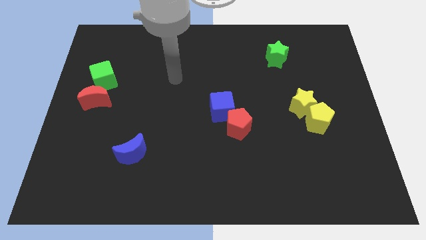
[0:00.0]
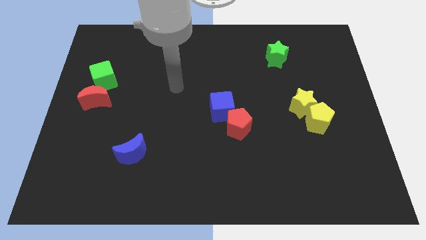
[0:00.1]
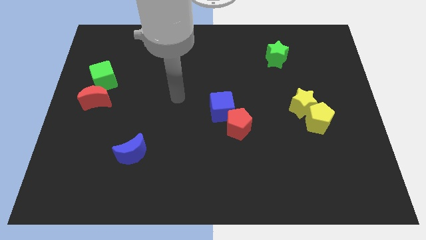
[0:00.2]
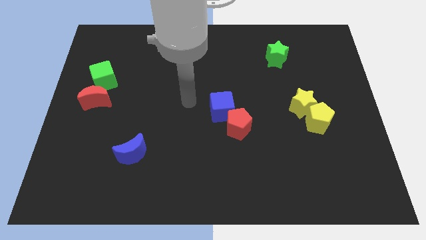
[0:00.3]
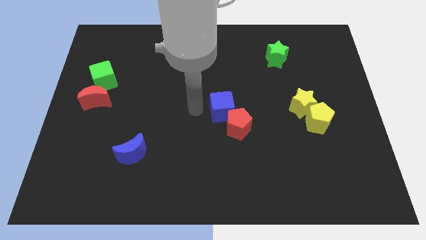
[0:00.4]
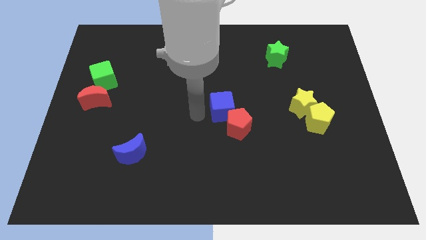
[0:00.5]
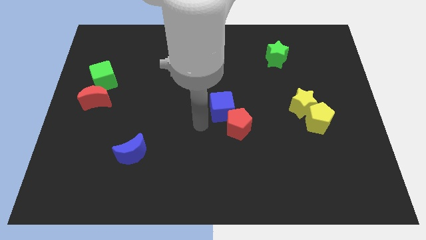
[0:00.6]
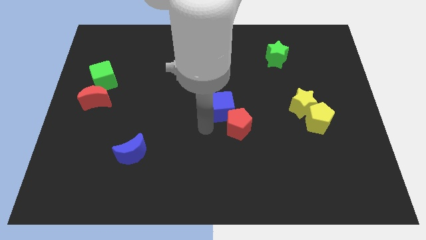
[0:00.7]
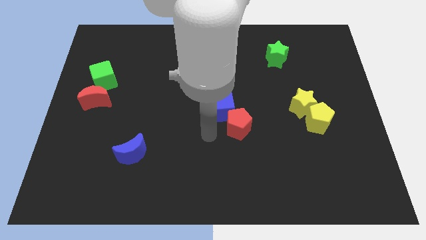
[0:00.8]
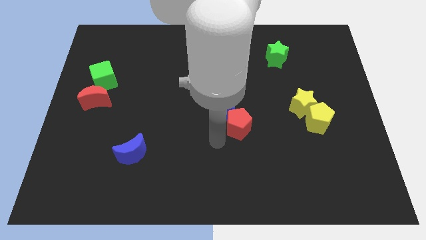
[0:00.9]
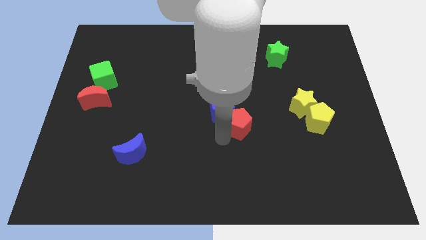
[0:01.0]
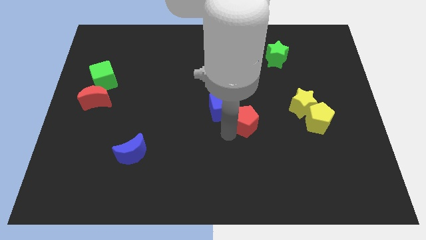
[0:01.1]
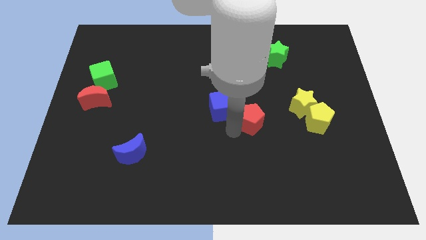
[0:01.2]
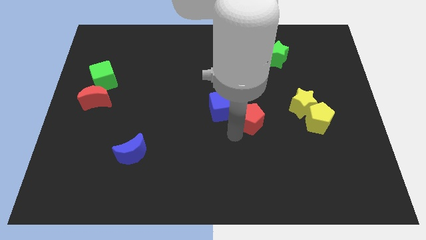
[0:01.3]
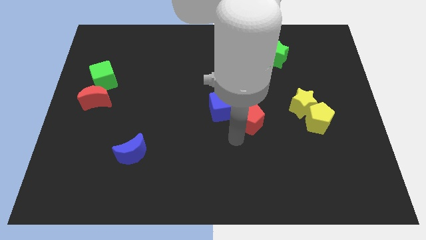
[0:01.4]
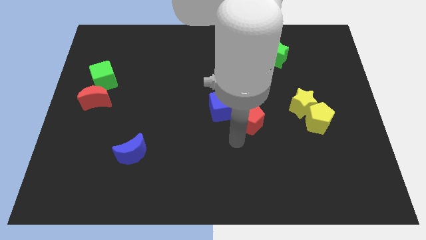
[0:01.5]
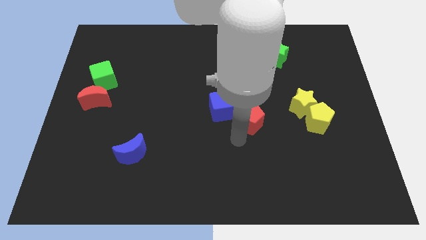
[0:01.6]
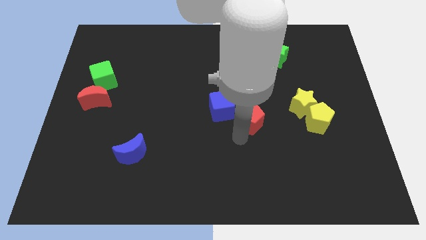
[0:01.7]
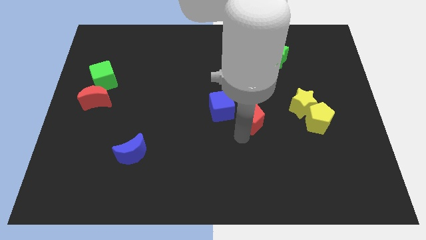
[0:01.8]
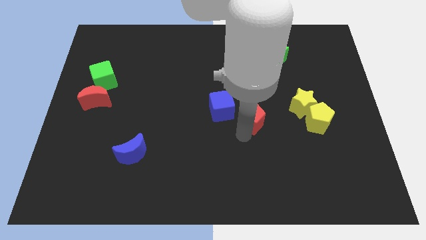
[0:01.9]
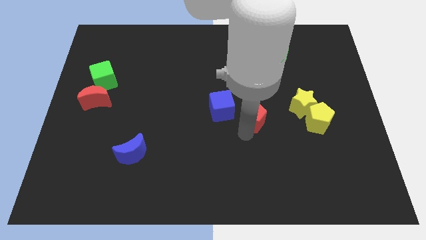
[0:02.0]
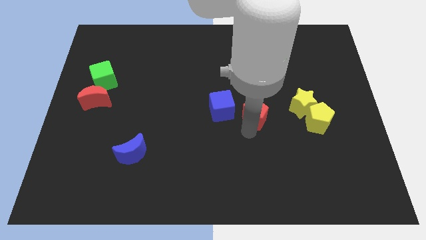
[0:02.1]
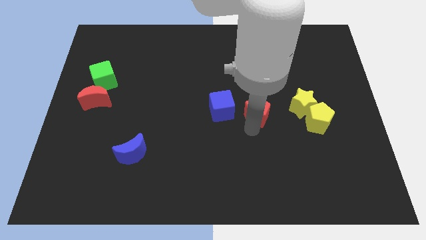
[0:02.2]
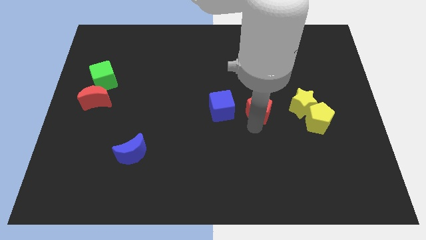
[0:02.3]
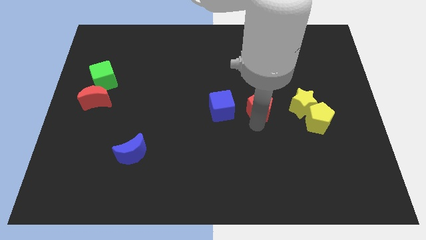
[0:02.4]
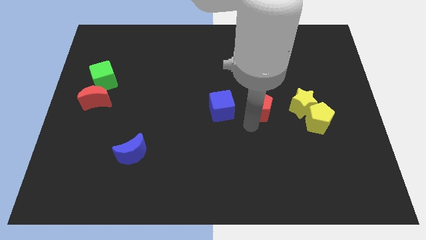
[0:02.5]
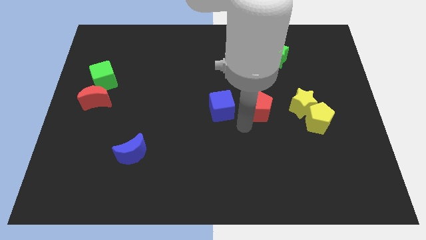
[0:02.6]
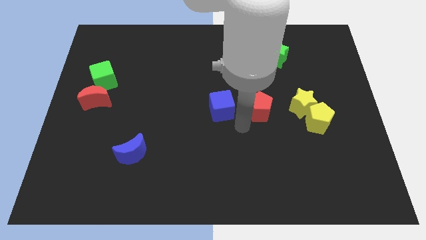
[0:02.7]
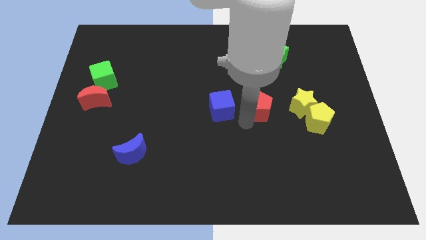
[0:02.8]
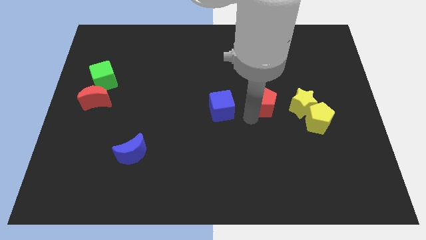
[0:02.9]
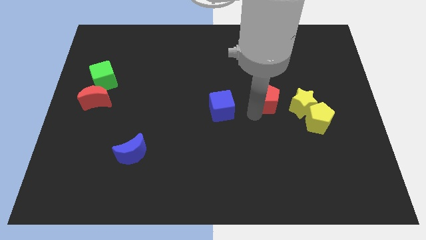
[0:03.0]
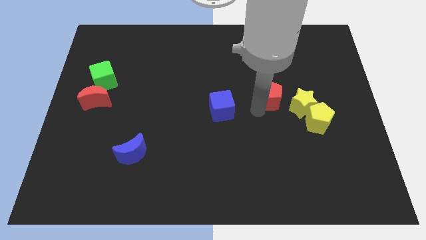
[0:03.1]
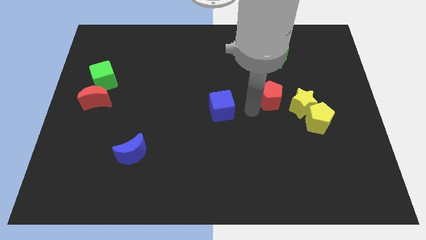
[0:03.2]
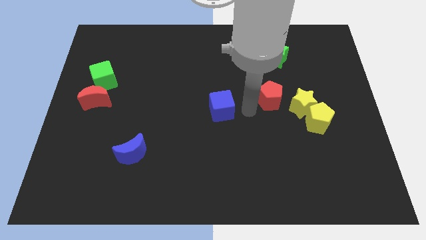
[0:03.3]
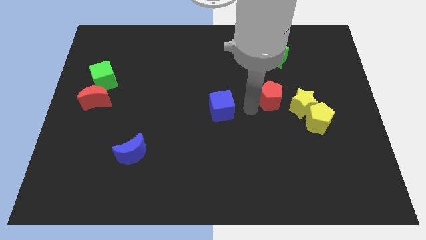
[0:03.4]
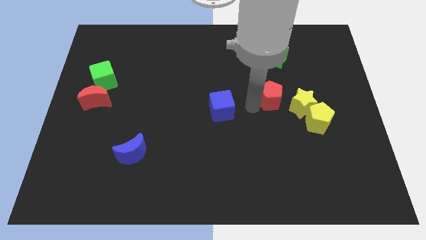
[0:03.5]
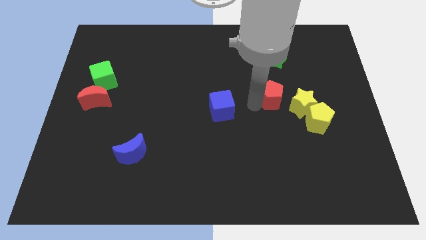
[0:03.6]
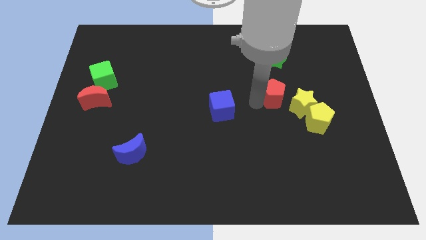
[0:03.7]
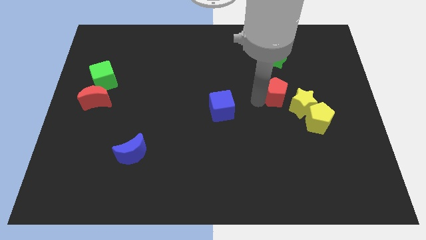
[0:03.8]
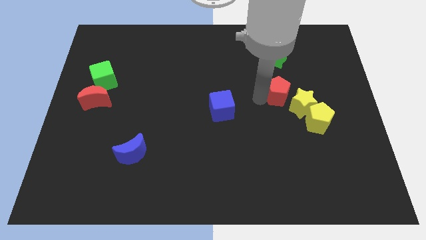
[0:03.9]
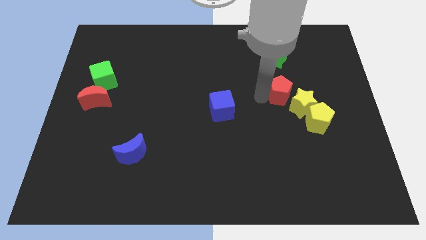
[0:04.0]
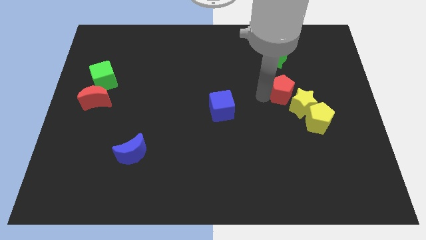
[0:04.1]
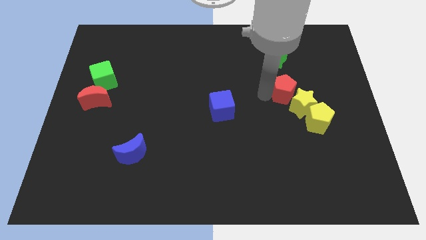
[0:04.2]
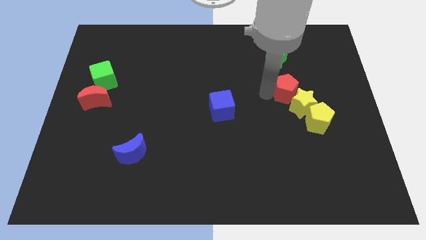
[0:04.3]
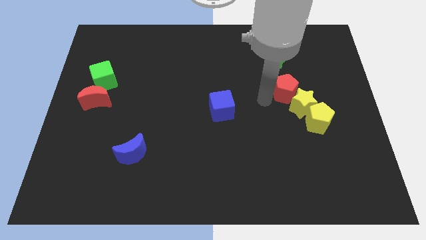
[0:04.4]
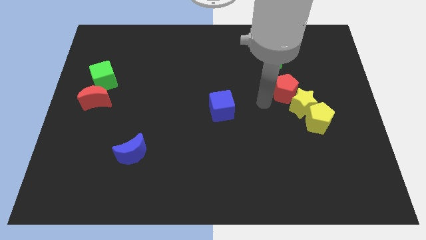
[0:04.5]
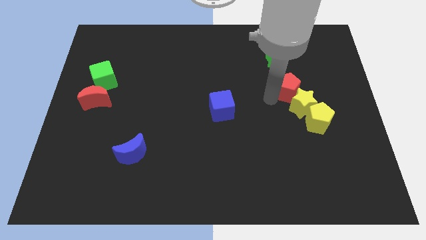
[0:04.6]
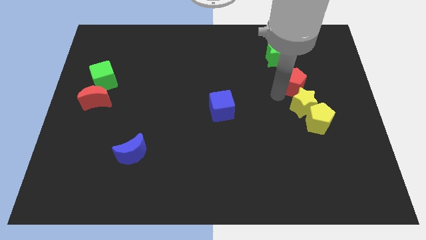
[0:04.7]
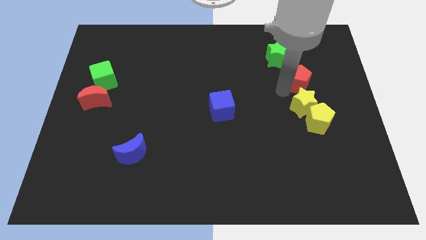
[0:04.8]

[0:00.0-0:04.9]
move the red pentagon upwards and to the right diagonally

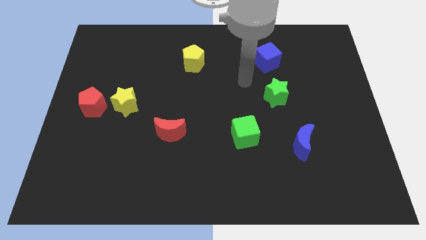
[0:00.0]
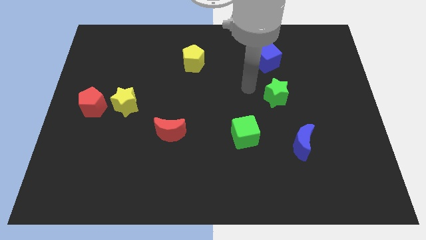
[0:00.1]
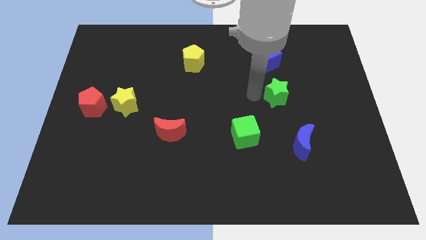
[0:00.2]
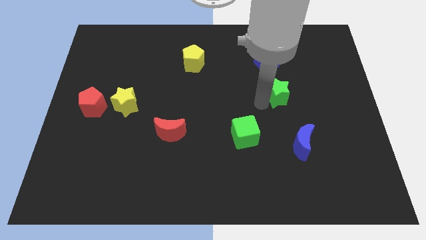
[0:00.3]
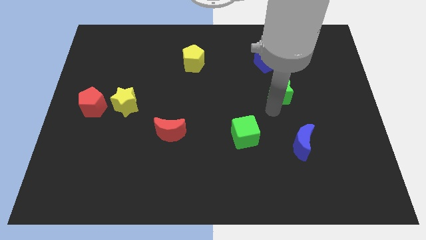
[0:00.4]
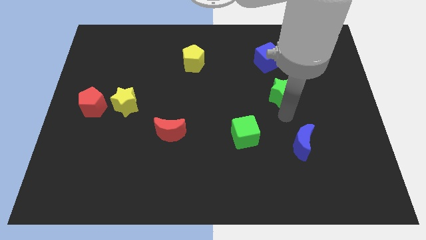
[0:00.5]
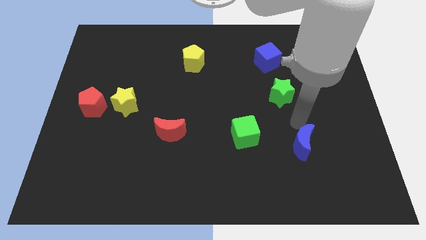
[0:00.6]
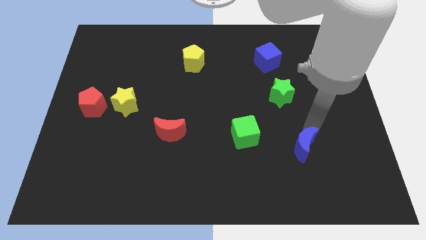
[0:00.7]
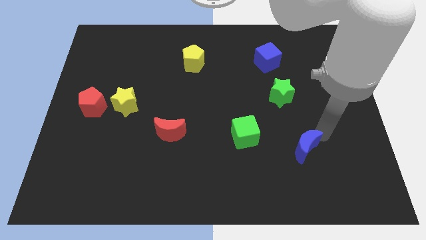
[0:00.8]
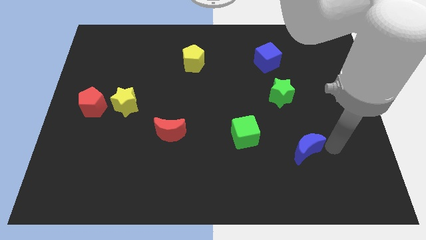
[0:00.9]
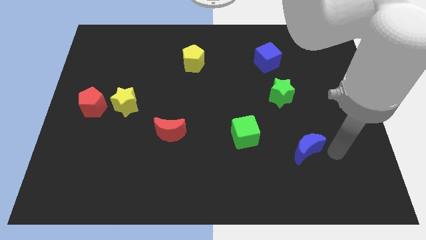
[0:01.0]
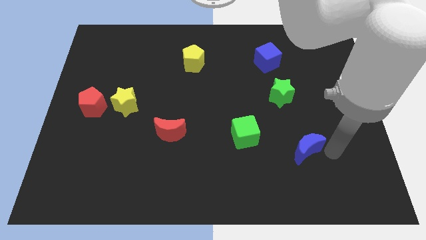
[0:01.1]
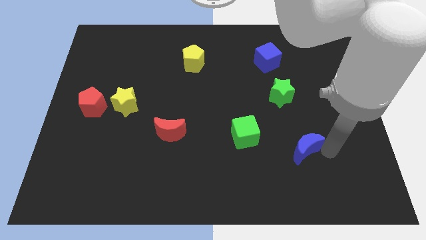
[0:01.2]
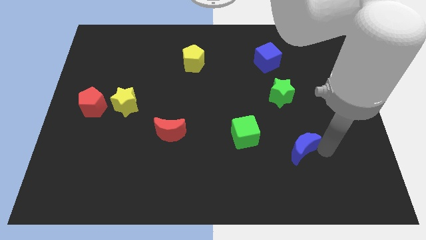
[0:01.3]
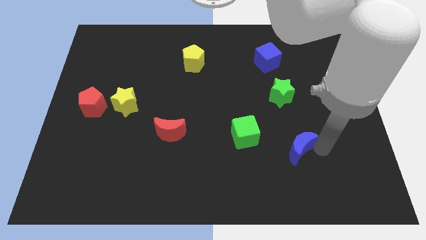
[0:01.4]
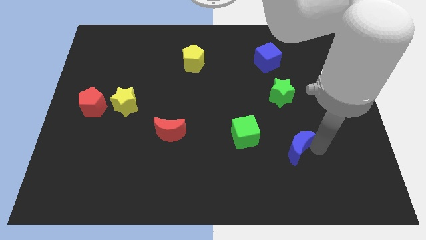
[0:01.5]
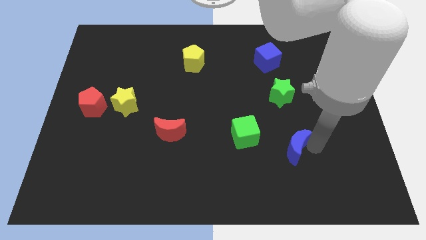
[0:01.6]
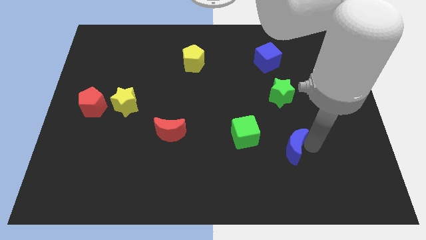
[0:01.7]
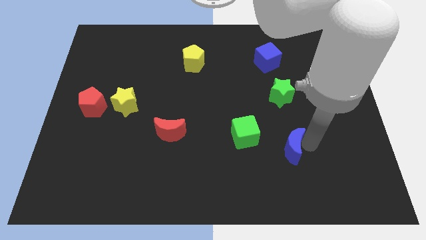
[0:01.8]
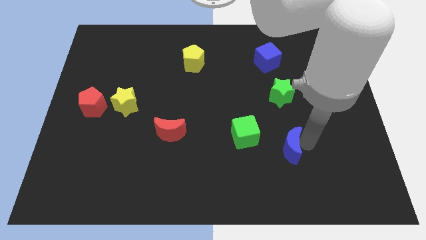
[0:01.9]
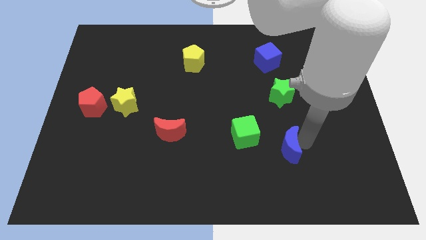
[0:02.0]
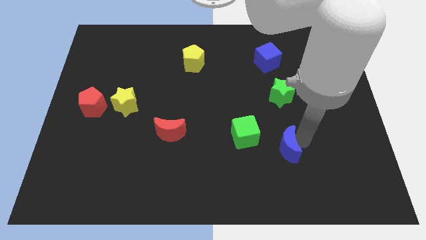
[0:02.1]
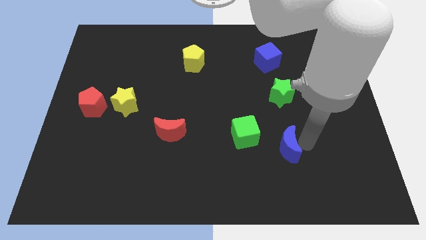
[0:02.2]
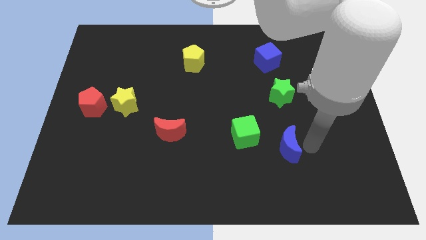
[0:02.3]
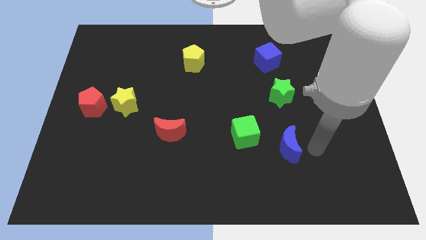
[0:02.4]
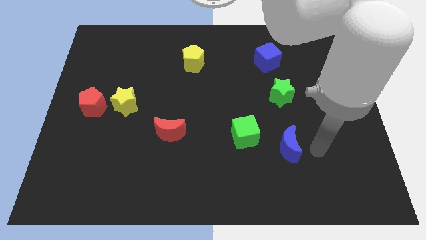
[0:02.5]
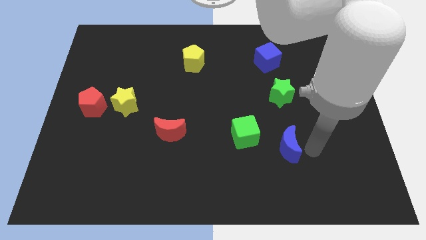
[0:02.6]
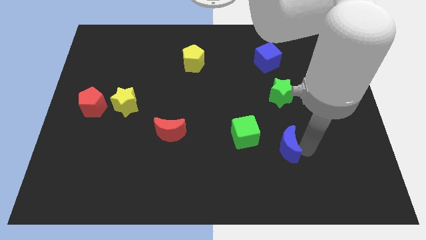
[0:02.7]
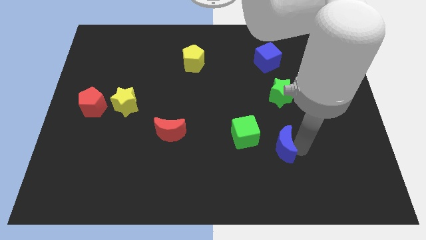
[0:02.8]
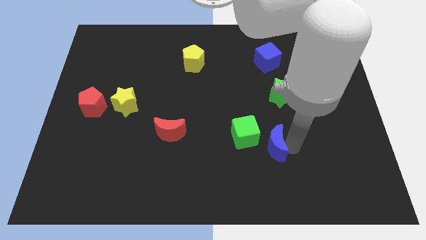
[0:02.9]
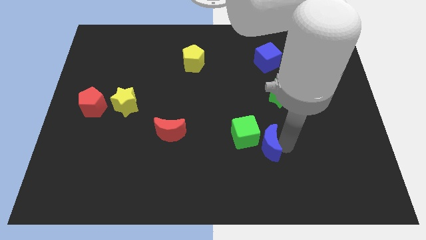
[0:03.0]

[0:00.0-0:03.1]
slightly slide the blue moon to the left
